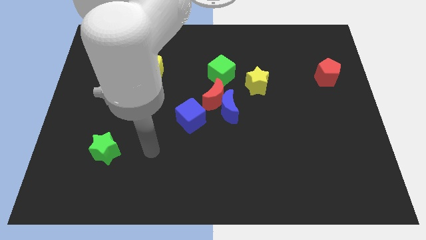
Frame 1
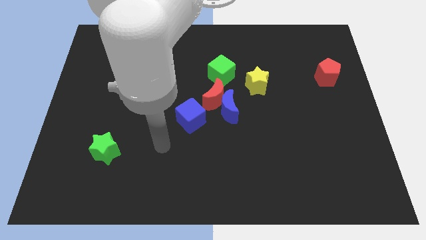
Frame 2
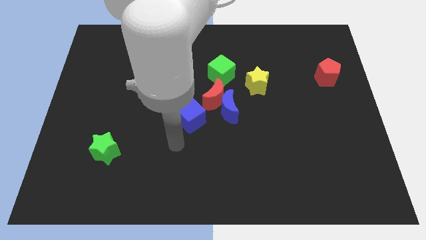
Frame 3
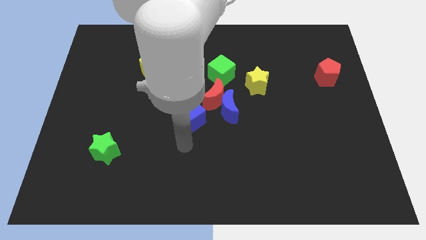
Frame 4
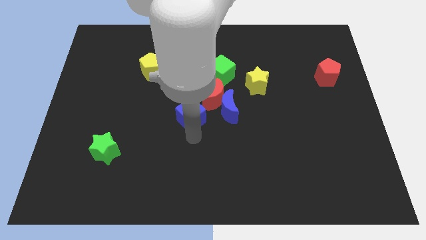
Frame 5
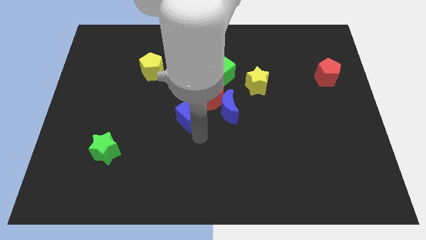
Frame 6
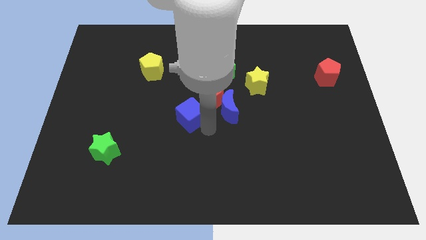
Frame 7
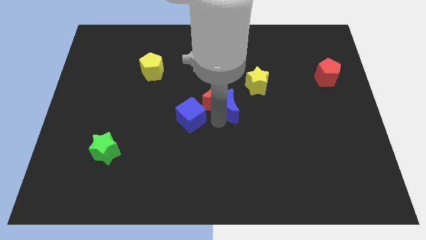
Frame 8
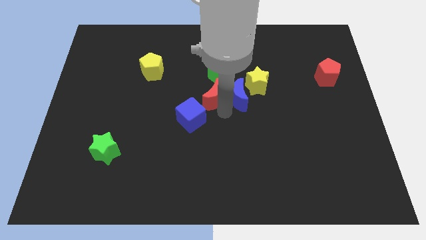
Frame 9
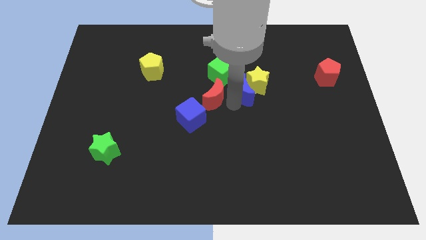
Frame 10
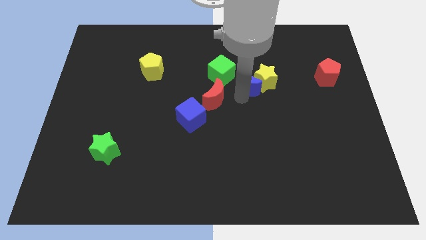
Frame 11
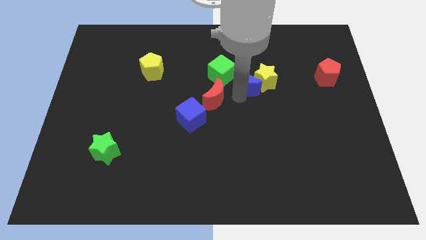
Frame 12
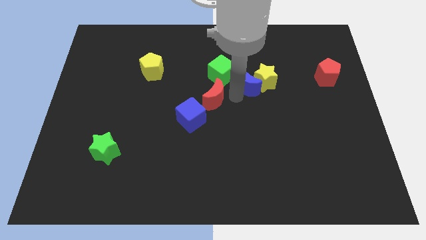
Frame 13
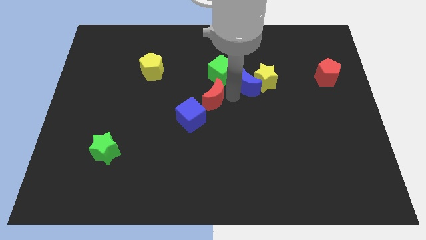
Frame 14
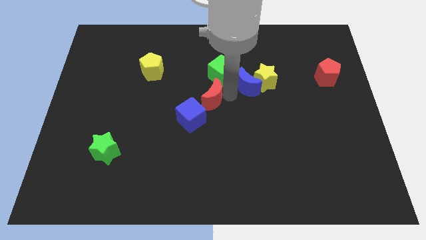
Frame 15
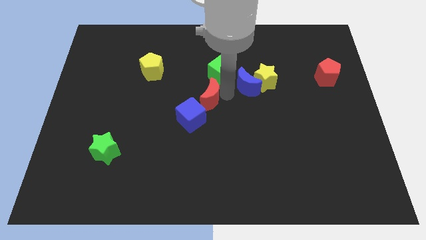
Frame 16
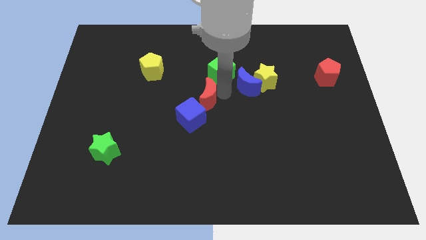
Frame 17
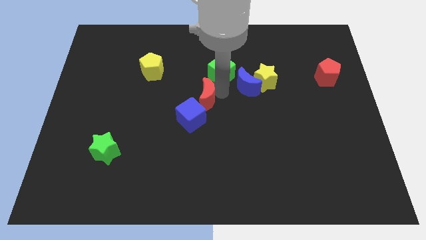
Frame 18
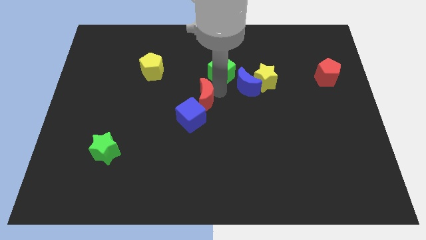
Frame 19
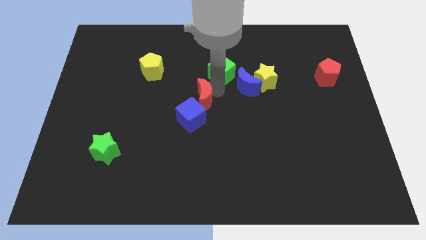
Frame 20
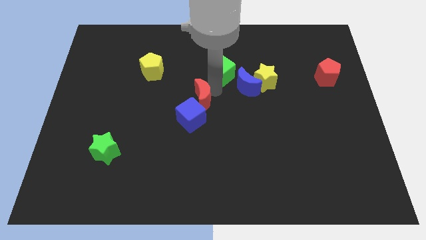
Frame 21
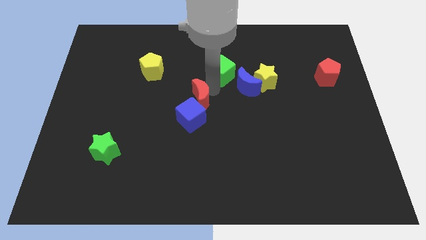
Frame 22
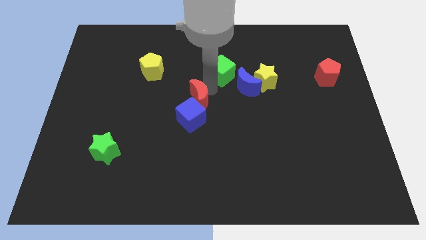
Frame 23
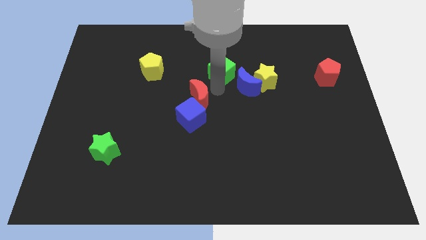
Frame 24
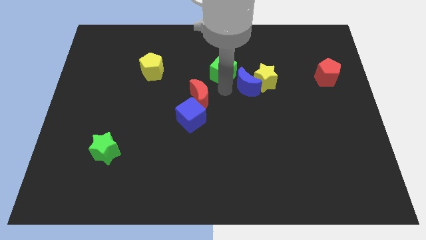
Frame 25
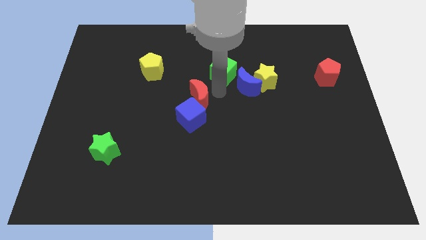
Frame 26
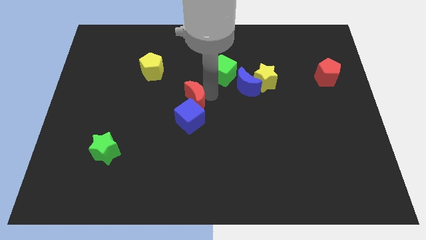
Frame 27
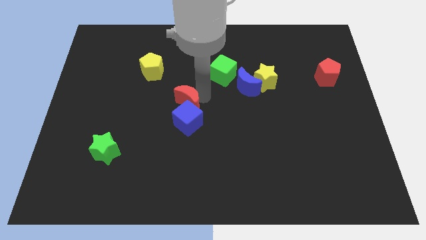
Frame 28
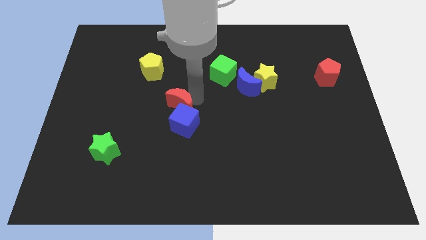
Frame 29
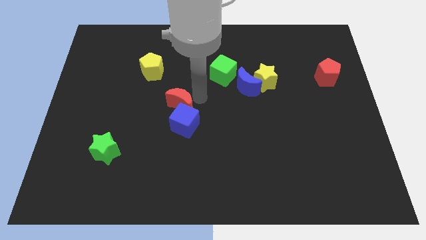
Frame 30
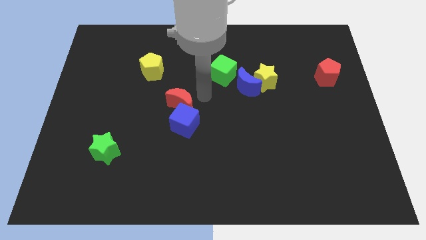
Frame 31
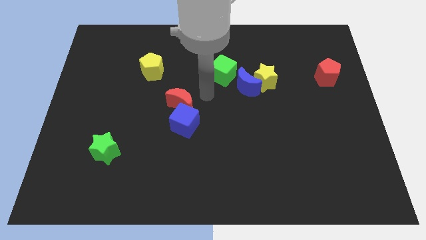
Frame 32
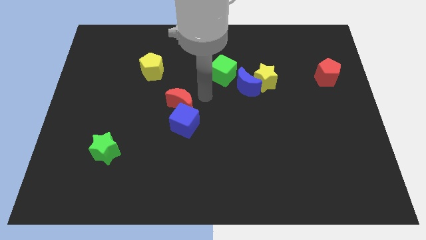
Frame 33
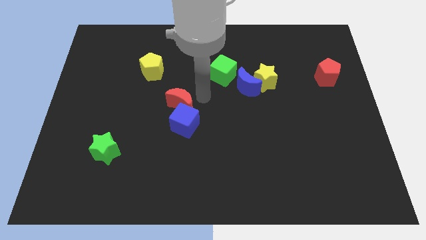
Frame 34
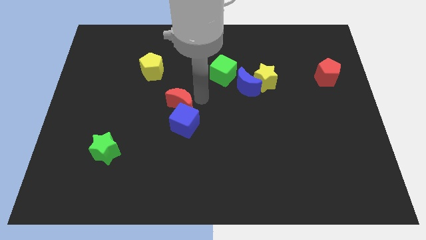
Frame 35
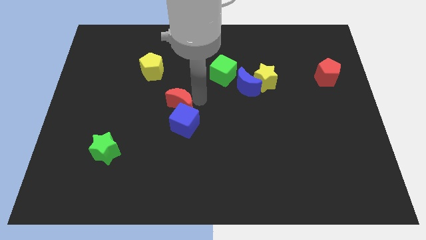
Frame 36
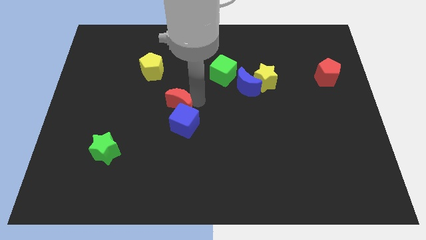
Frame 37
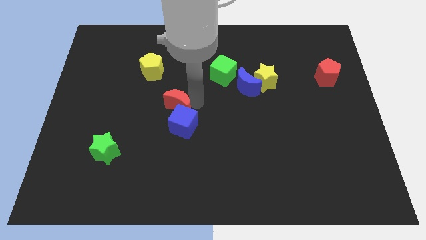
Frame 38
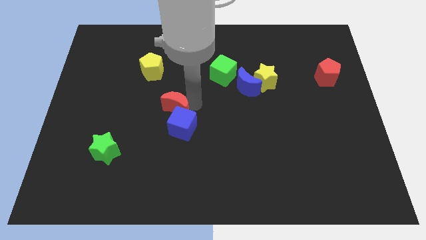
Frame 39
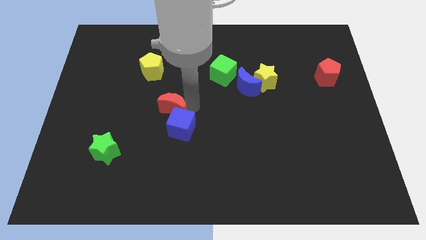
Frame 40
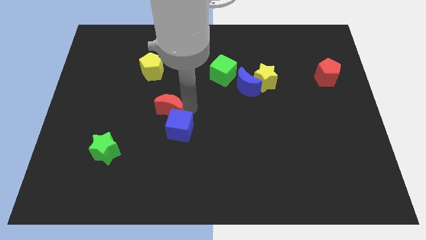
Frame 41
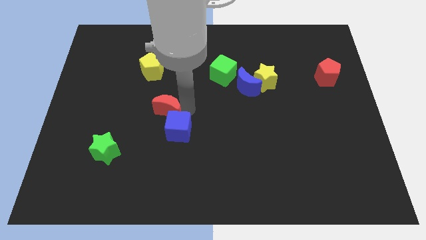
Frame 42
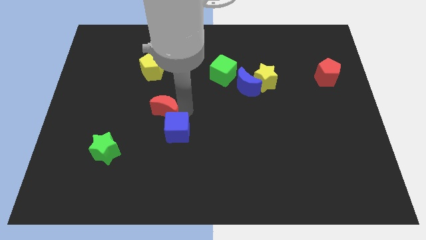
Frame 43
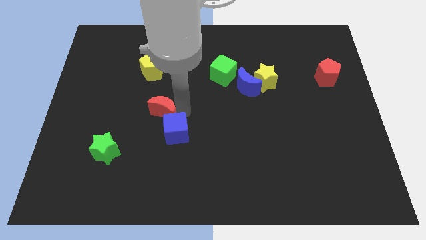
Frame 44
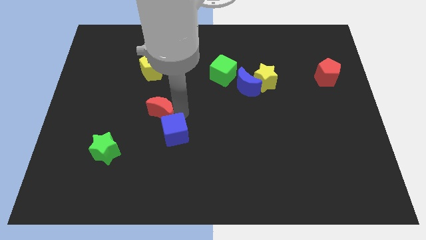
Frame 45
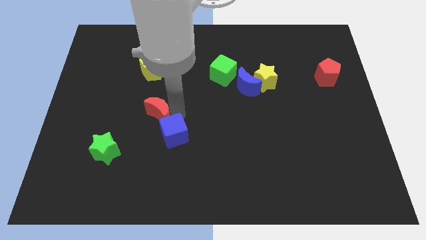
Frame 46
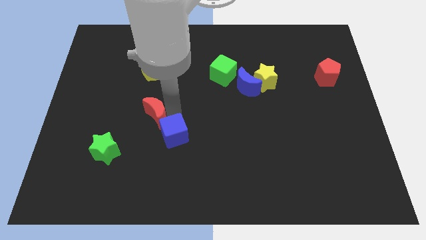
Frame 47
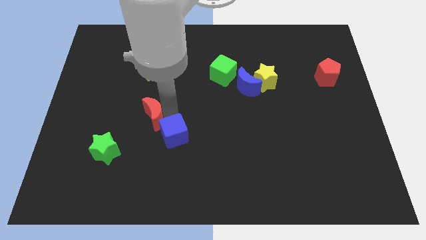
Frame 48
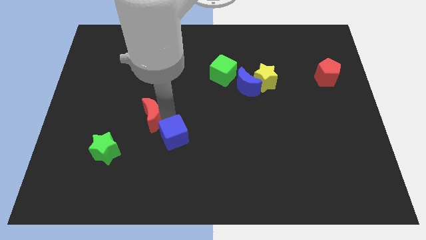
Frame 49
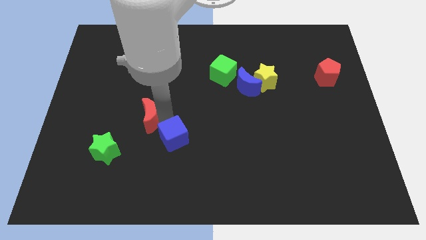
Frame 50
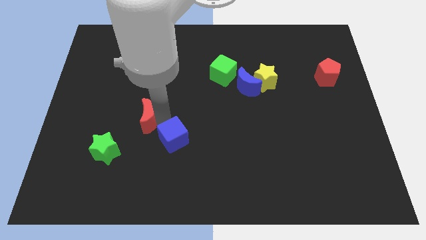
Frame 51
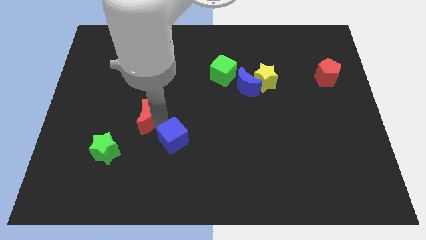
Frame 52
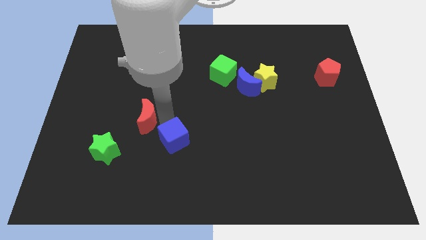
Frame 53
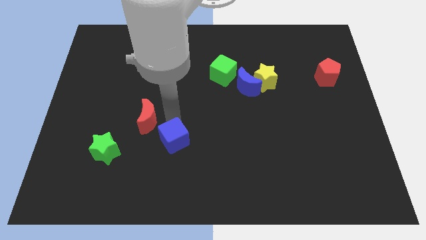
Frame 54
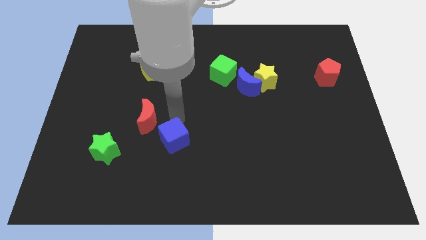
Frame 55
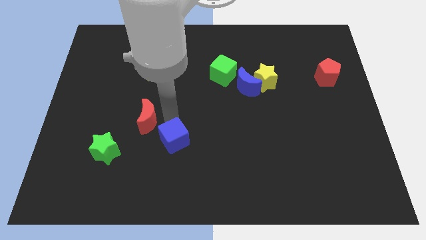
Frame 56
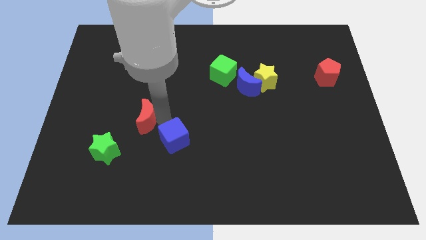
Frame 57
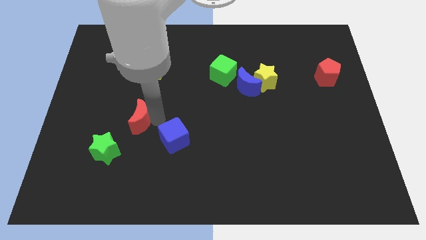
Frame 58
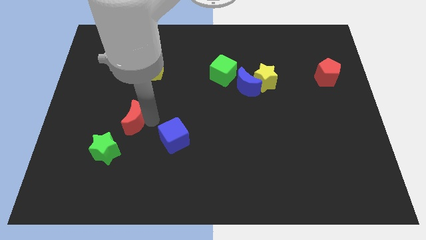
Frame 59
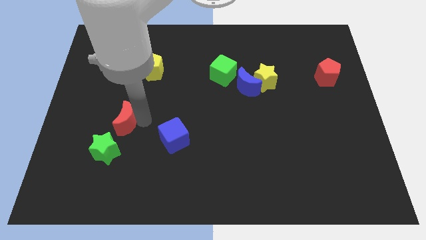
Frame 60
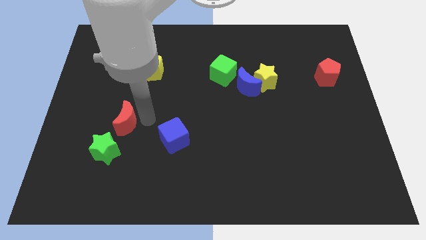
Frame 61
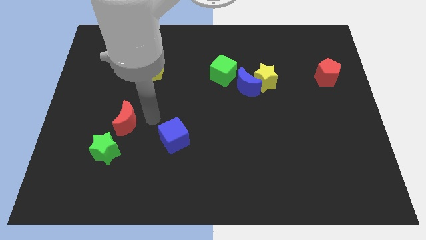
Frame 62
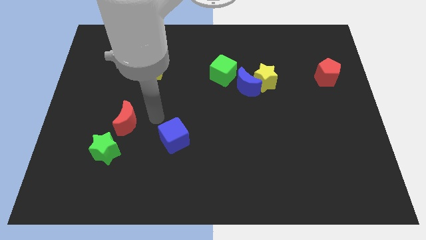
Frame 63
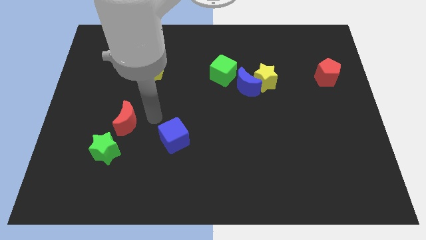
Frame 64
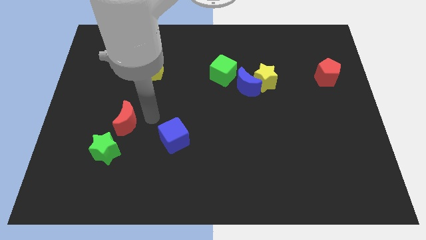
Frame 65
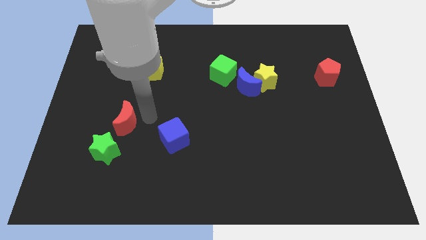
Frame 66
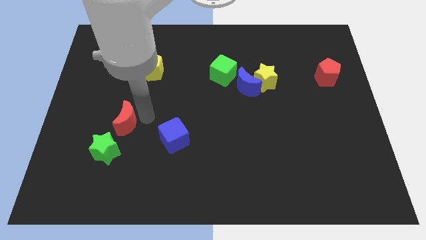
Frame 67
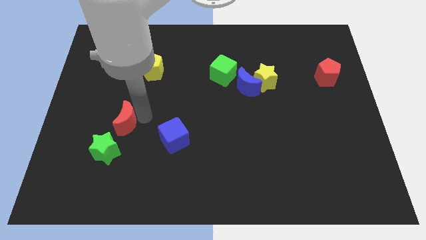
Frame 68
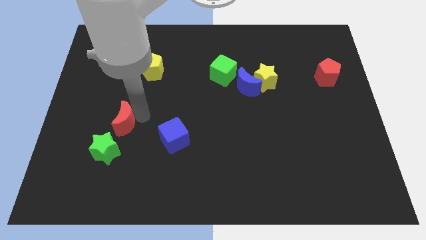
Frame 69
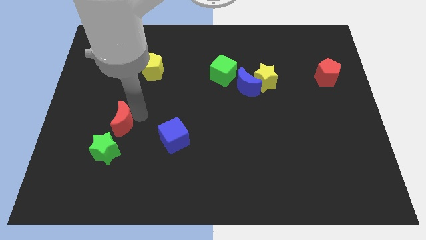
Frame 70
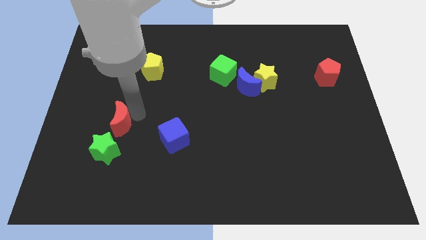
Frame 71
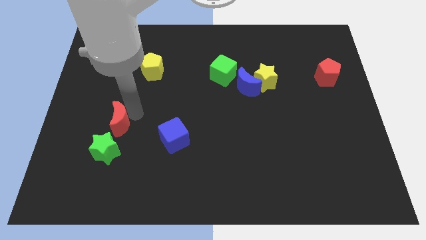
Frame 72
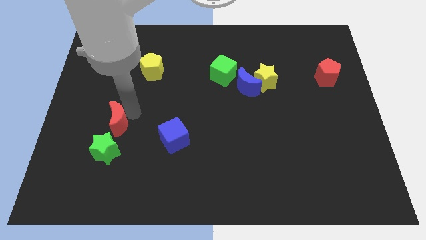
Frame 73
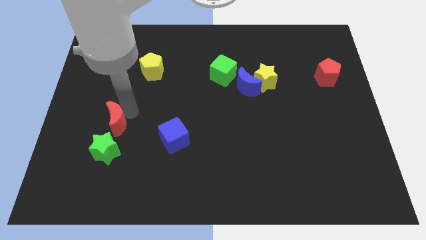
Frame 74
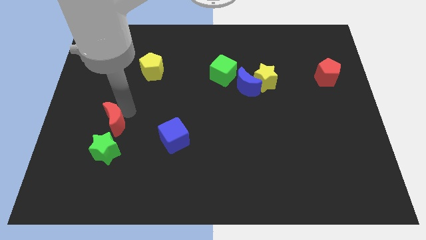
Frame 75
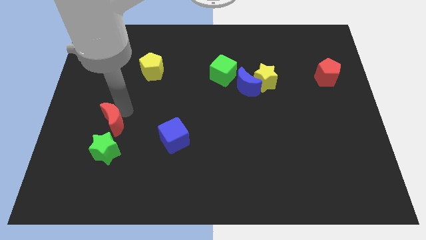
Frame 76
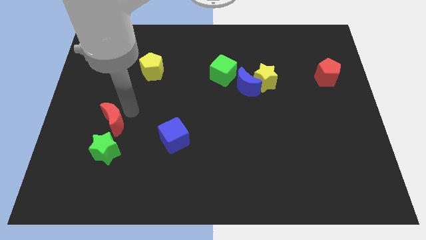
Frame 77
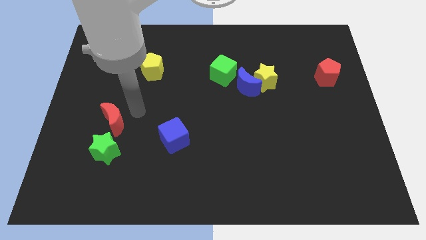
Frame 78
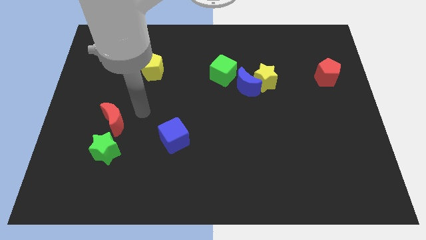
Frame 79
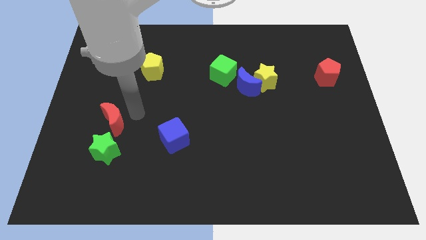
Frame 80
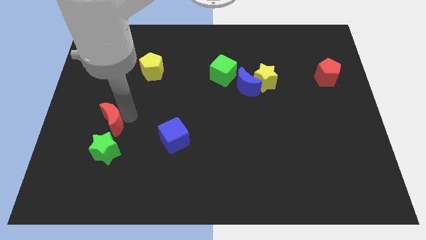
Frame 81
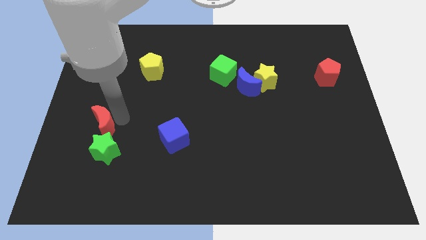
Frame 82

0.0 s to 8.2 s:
move the red moon to the top left side of the green star
